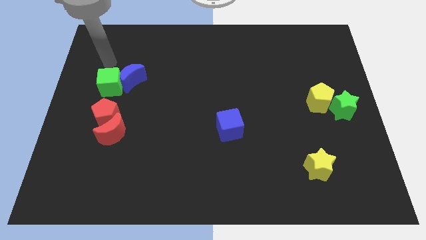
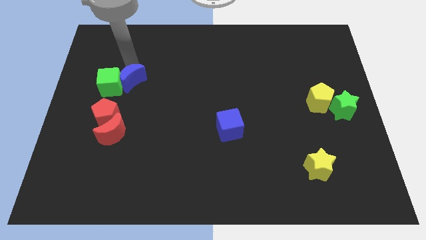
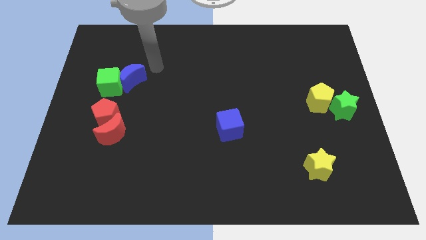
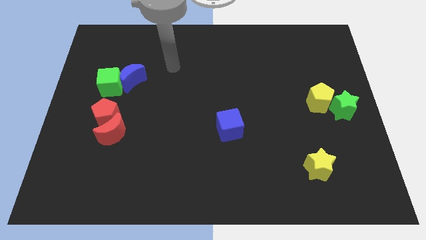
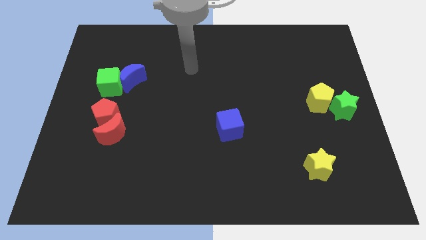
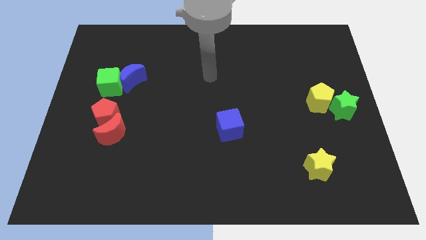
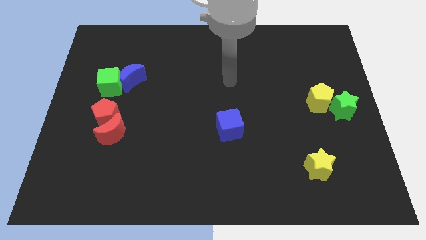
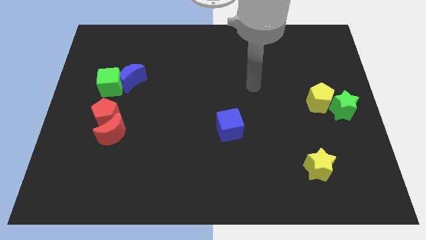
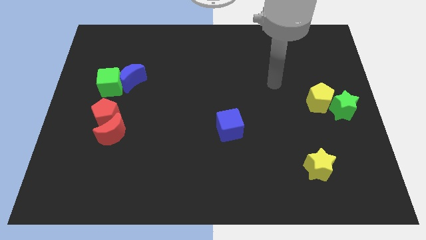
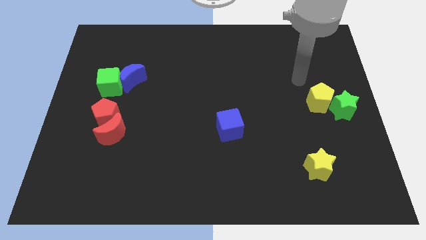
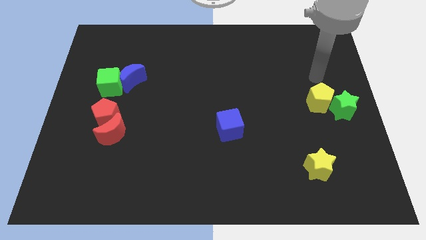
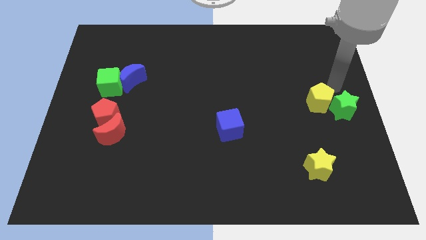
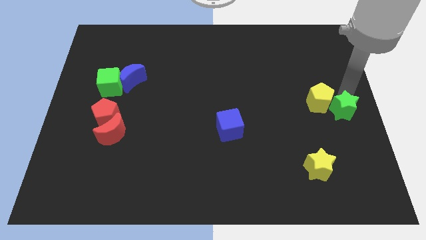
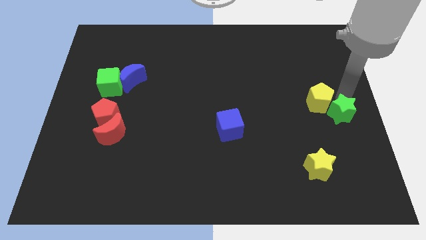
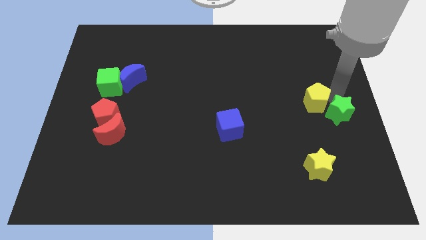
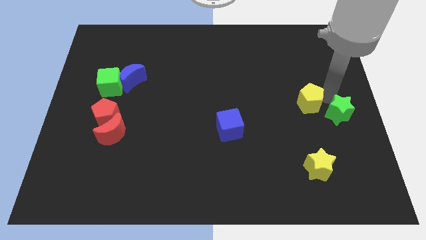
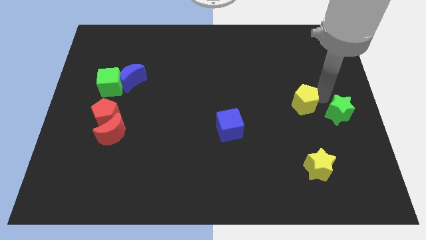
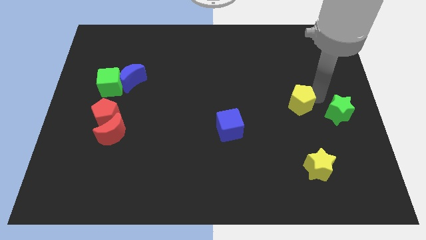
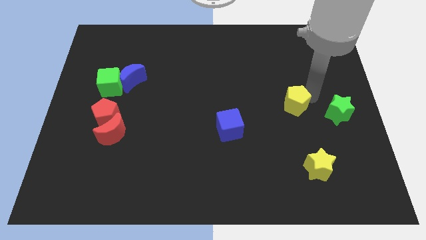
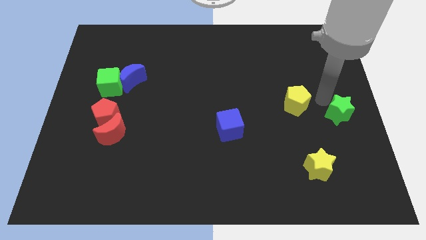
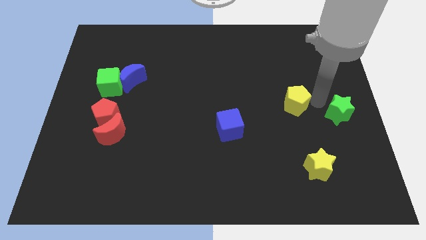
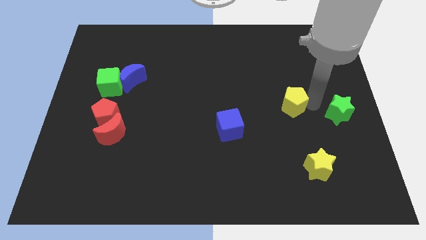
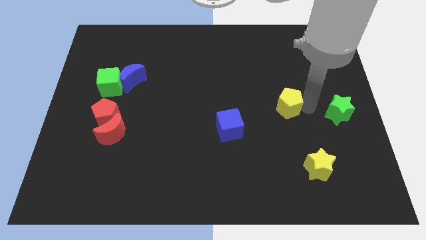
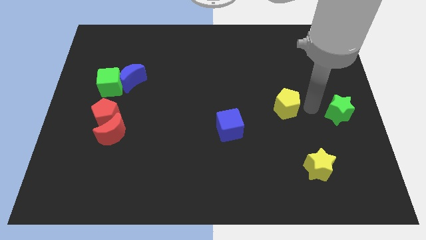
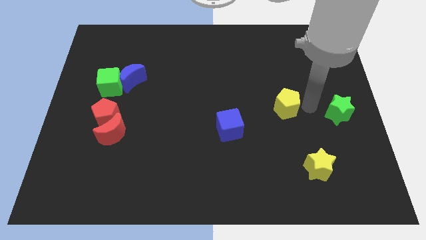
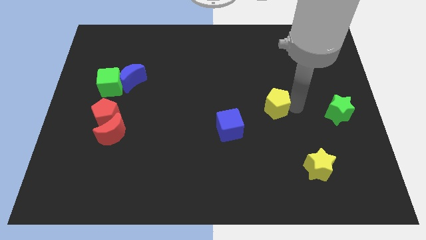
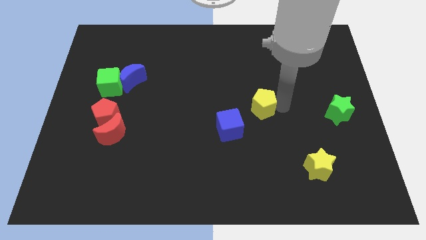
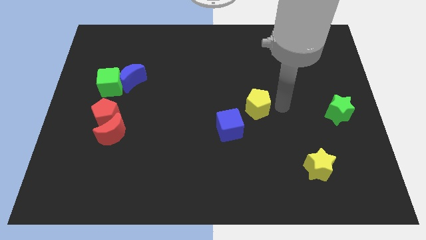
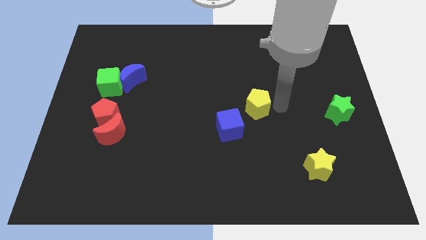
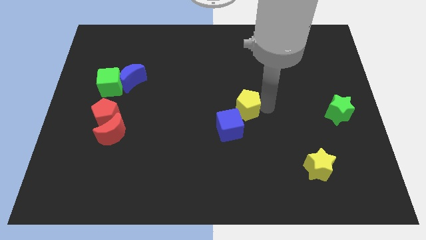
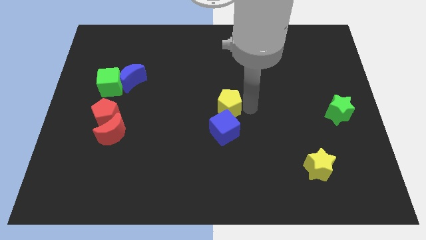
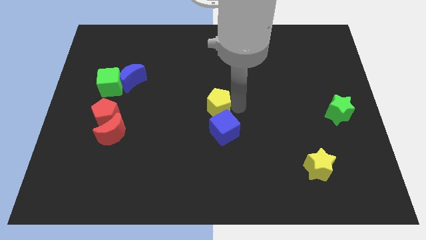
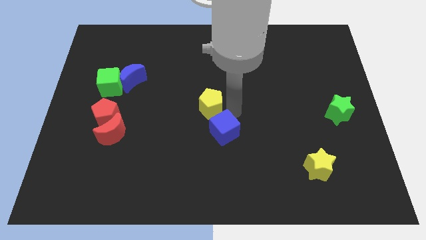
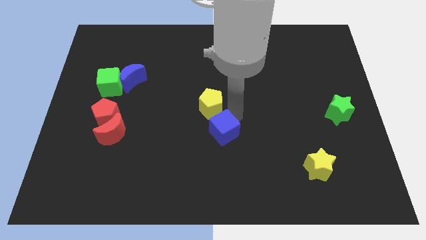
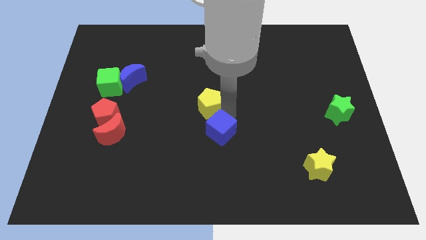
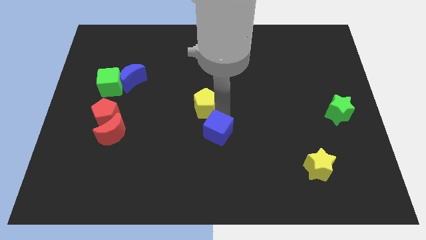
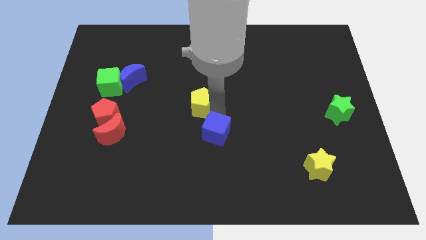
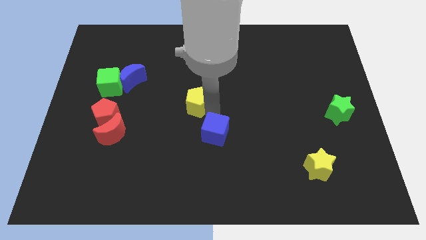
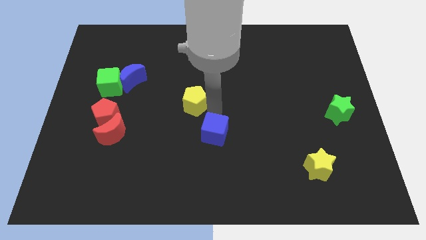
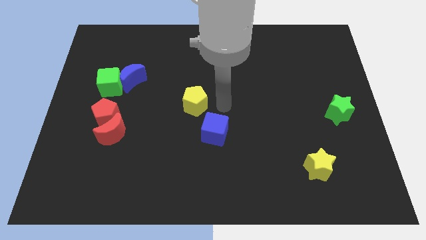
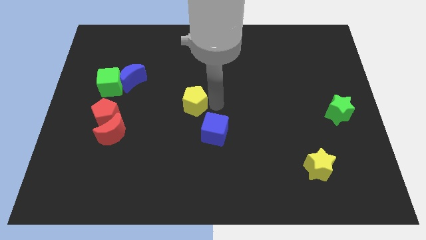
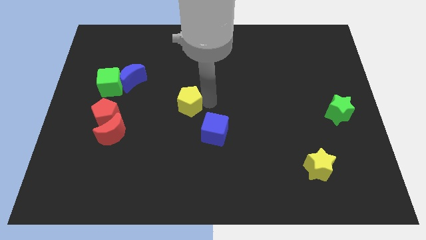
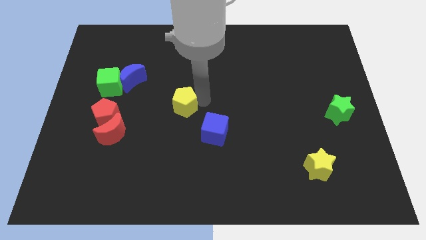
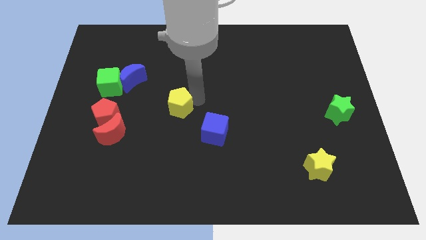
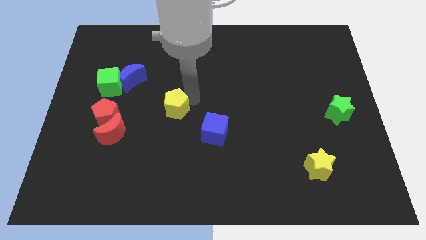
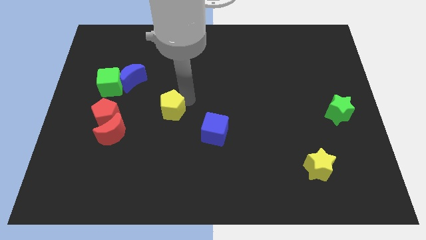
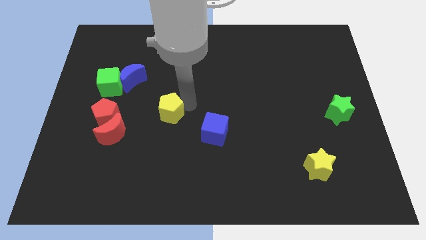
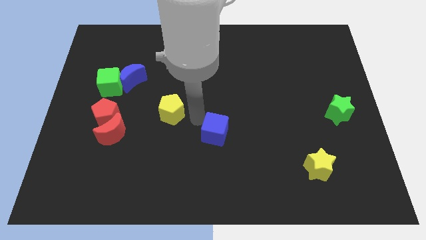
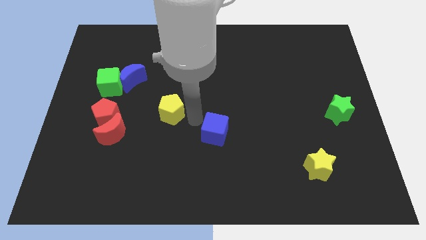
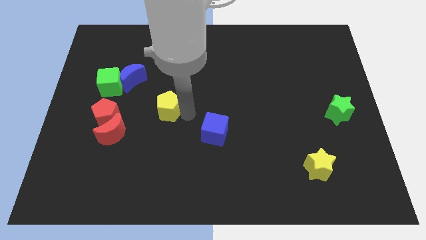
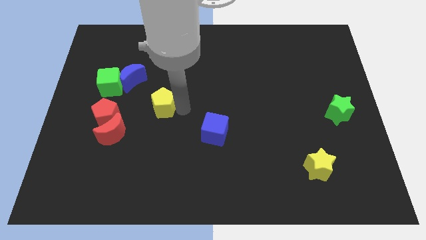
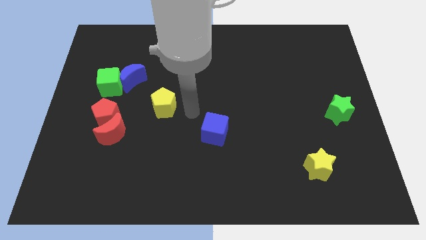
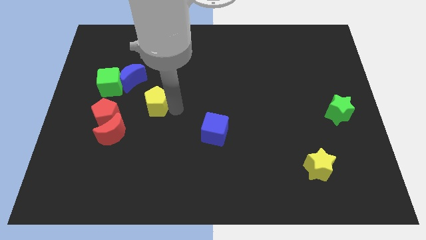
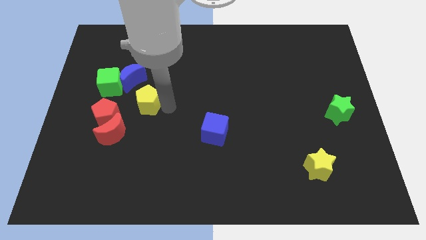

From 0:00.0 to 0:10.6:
slide the yellow pentagon to the top right of the red pentagon

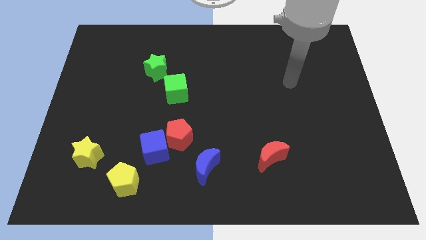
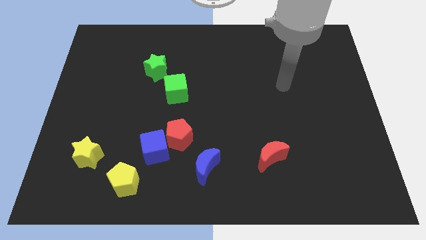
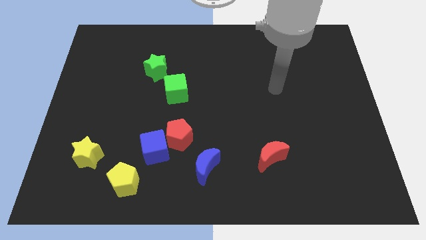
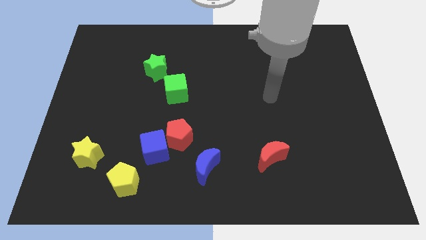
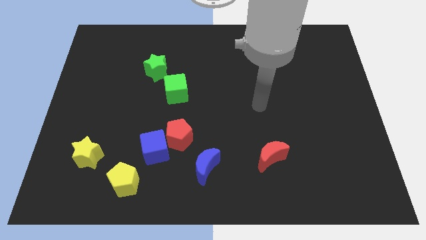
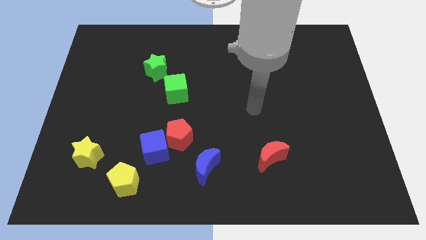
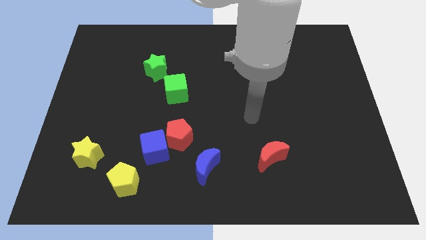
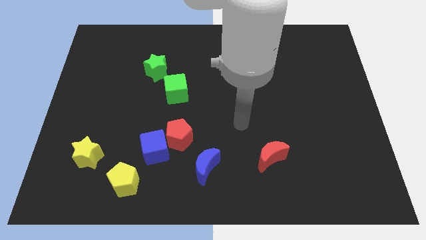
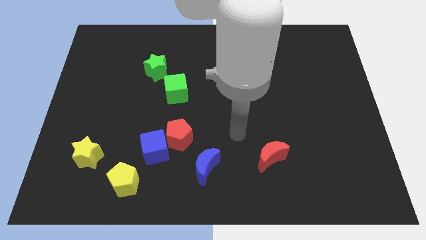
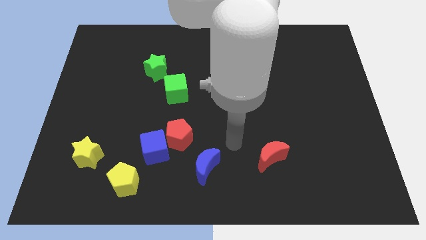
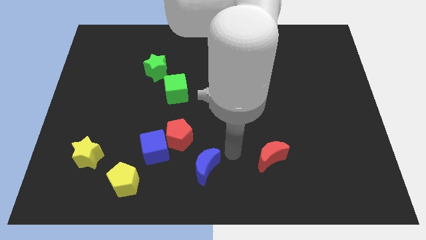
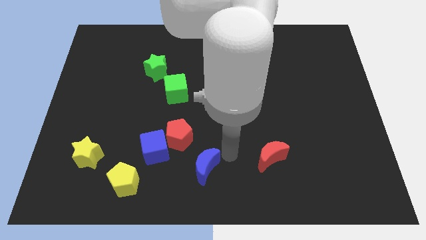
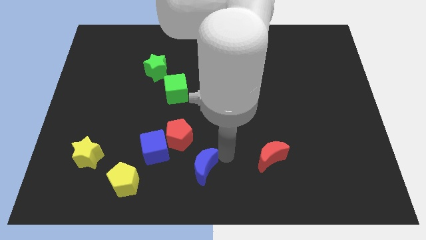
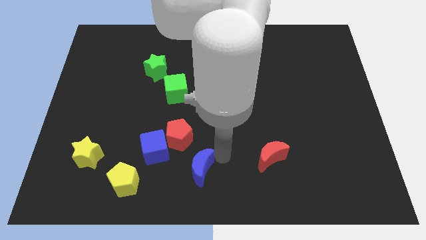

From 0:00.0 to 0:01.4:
put the blue moon to the bottom of the red pentagon
